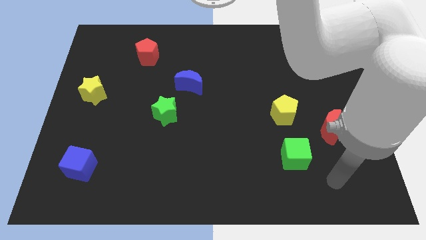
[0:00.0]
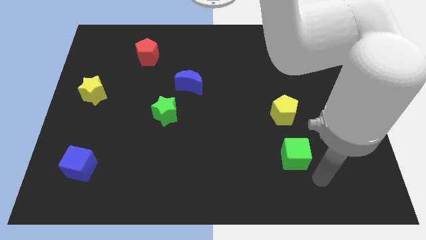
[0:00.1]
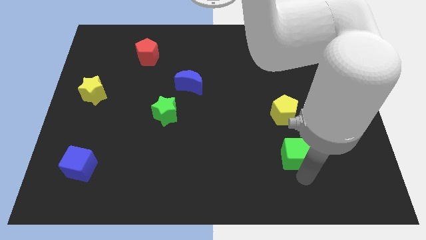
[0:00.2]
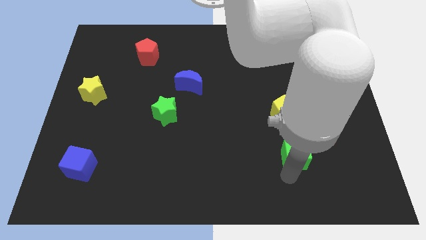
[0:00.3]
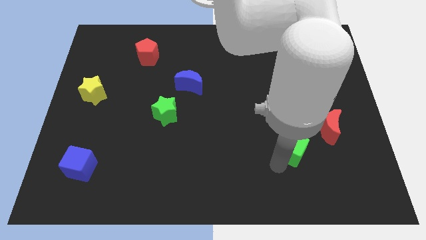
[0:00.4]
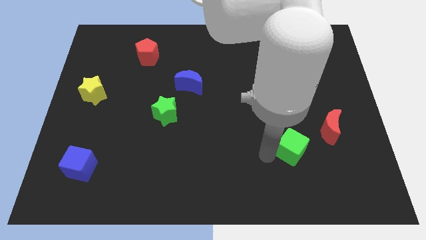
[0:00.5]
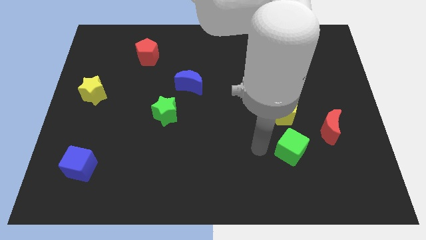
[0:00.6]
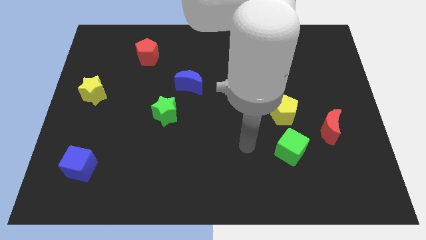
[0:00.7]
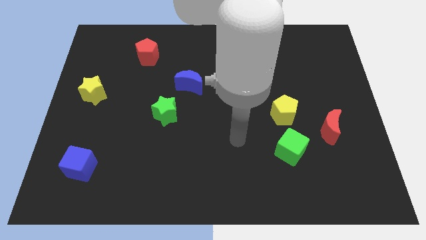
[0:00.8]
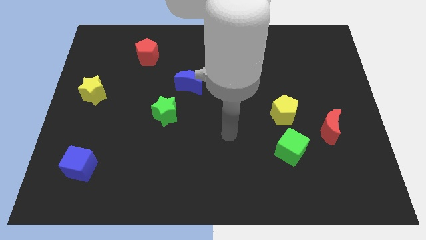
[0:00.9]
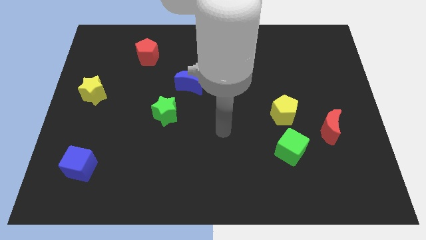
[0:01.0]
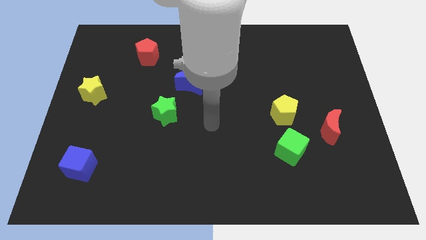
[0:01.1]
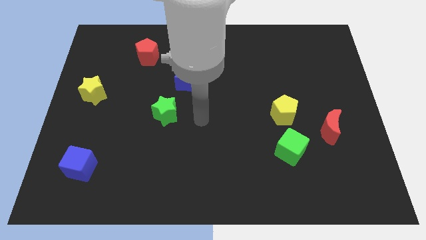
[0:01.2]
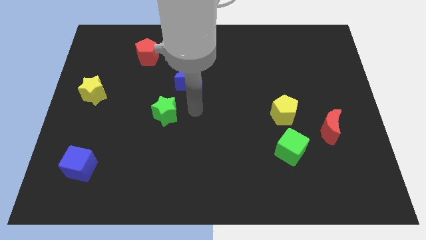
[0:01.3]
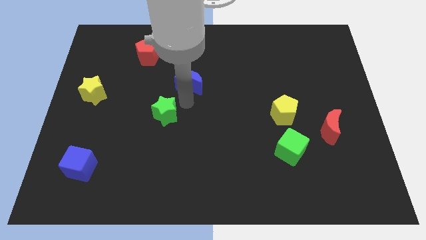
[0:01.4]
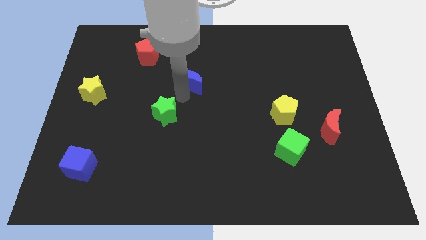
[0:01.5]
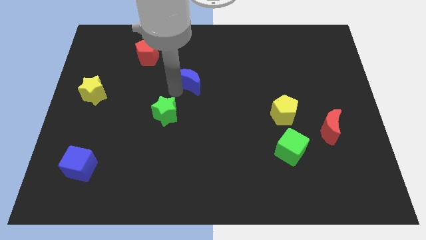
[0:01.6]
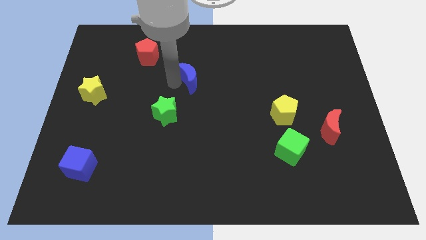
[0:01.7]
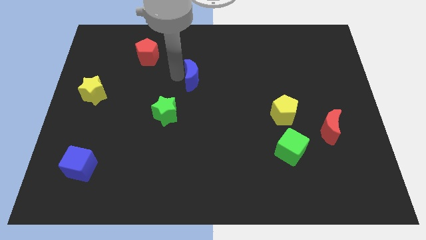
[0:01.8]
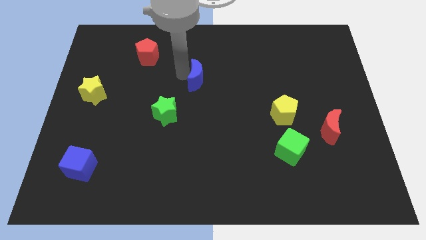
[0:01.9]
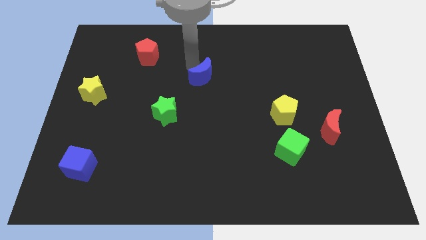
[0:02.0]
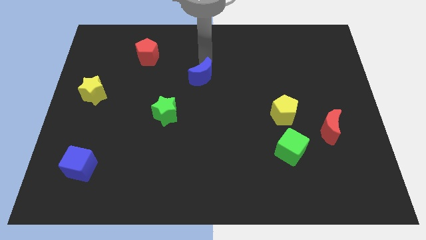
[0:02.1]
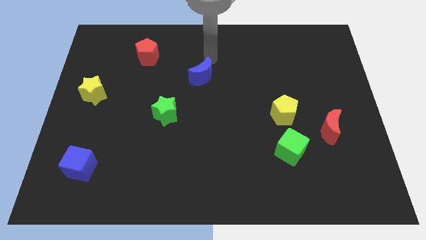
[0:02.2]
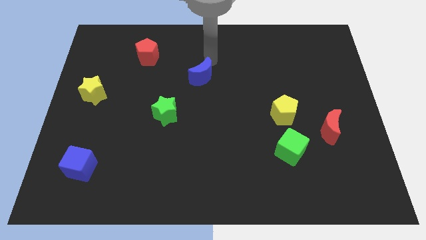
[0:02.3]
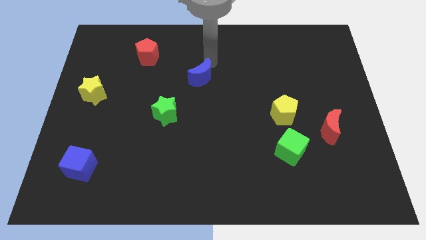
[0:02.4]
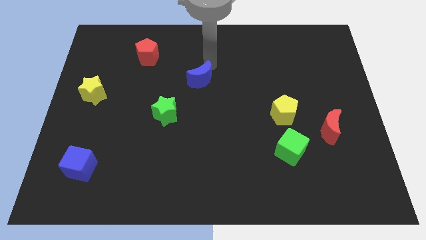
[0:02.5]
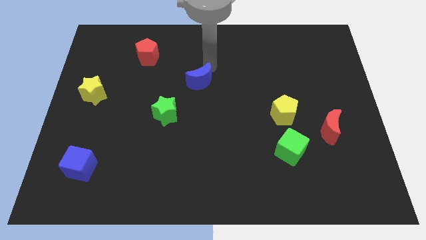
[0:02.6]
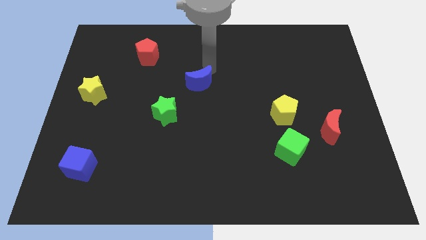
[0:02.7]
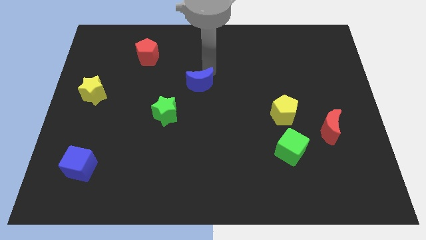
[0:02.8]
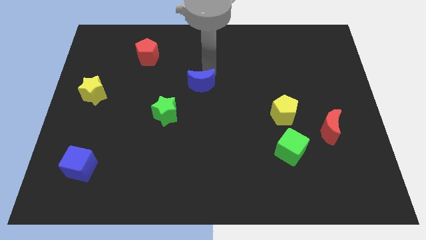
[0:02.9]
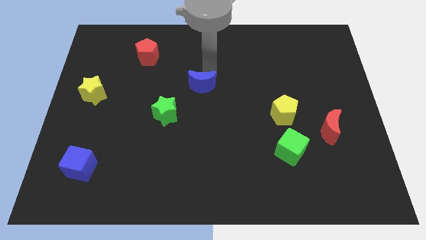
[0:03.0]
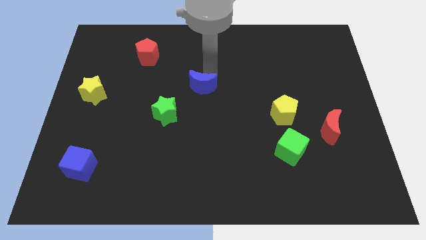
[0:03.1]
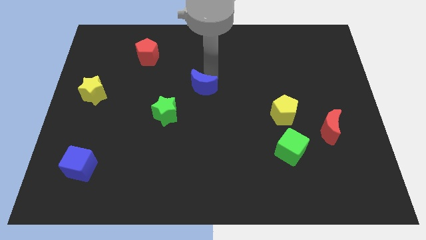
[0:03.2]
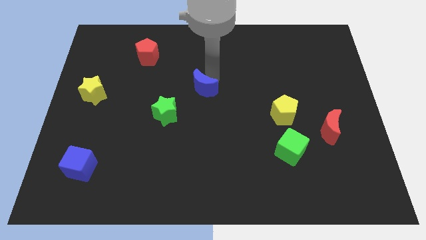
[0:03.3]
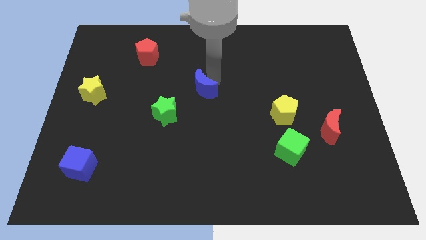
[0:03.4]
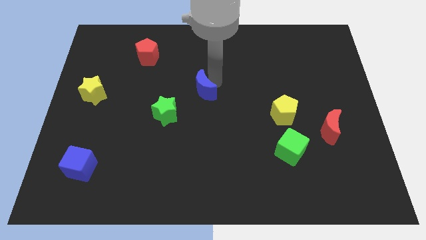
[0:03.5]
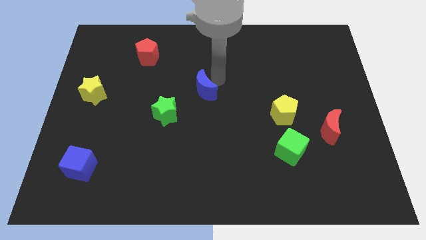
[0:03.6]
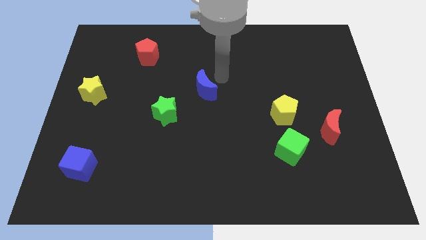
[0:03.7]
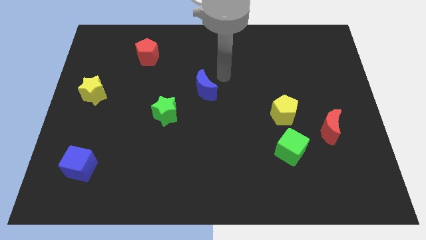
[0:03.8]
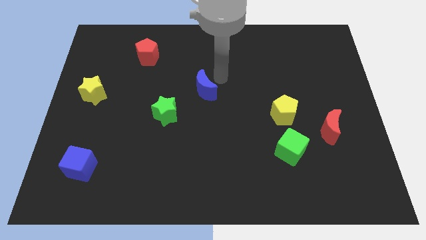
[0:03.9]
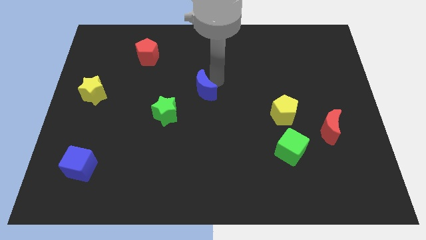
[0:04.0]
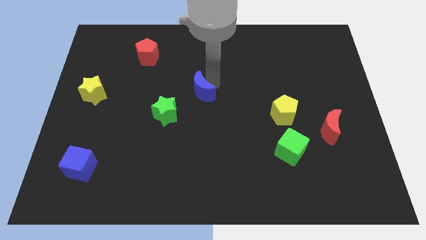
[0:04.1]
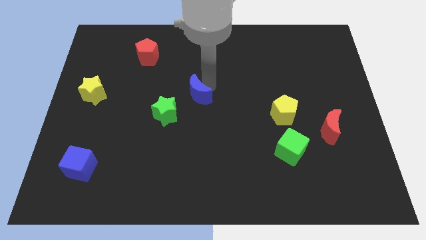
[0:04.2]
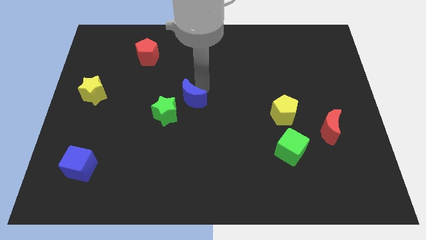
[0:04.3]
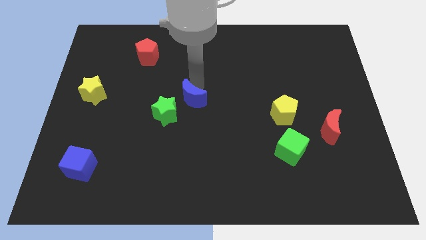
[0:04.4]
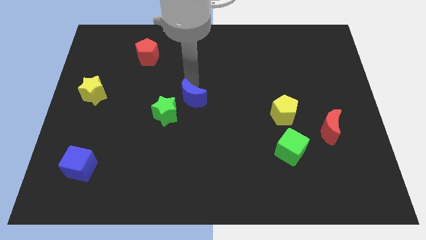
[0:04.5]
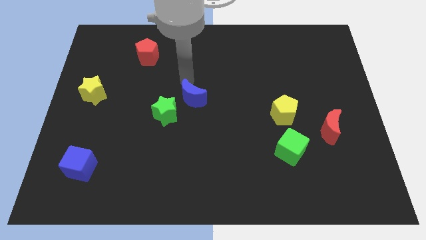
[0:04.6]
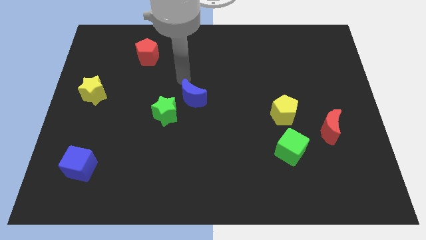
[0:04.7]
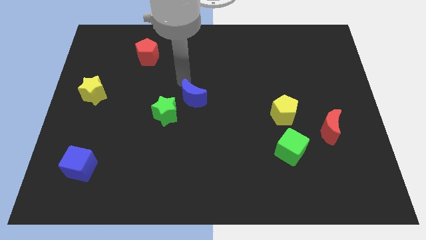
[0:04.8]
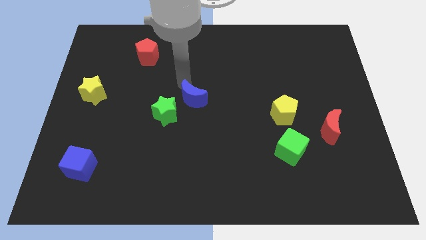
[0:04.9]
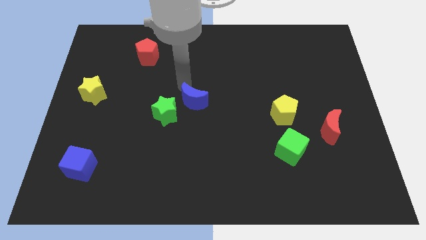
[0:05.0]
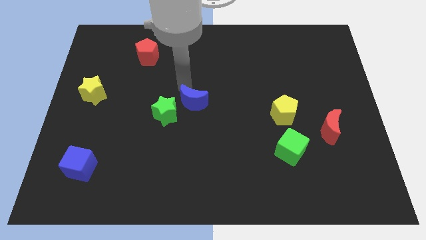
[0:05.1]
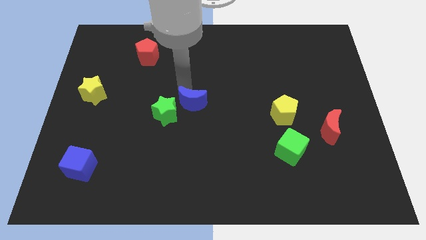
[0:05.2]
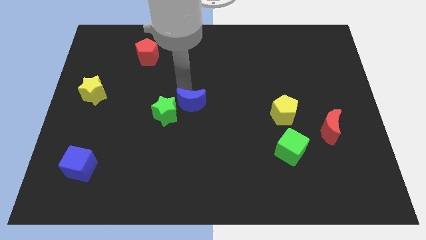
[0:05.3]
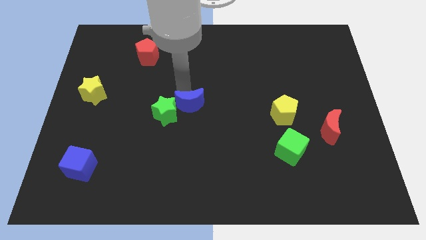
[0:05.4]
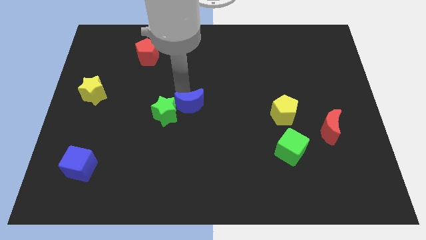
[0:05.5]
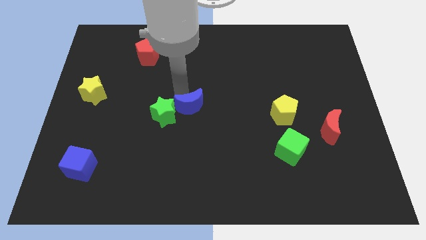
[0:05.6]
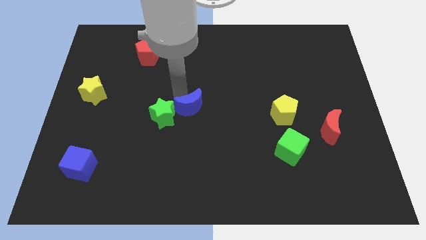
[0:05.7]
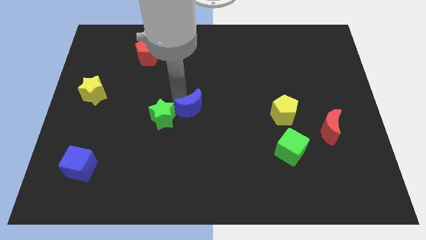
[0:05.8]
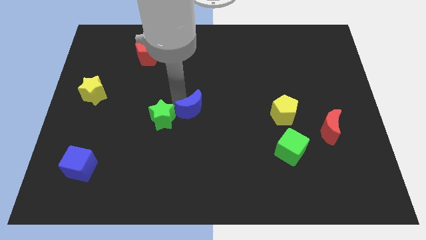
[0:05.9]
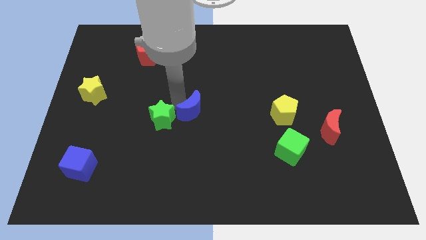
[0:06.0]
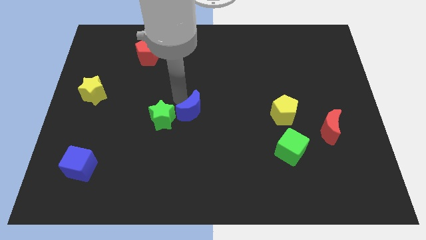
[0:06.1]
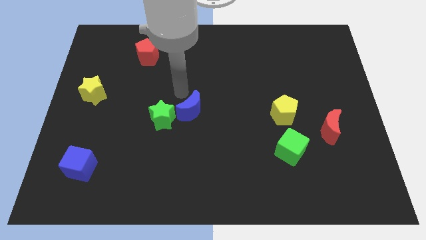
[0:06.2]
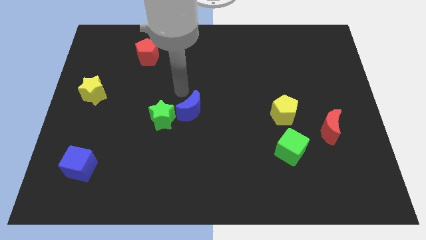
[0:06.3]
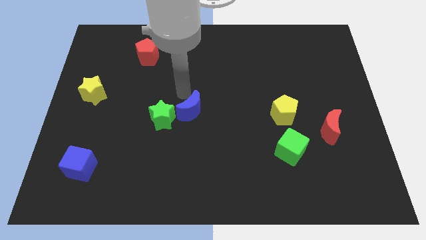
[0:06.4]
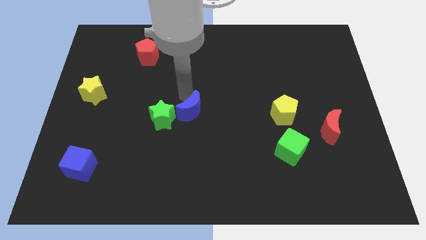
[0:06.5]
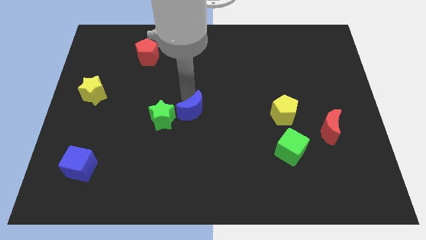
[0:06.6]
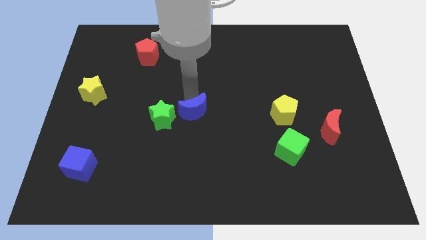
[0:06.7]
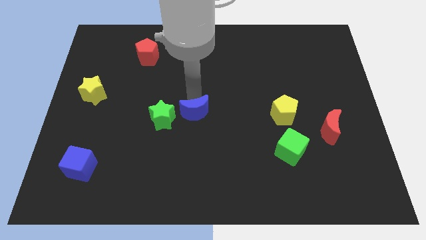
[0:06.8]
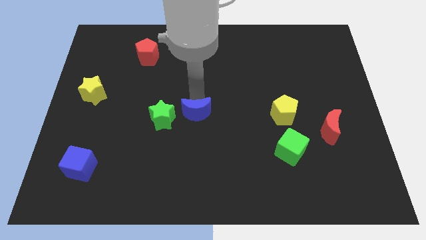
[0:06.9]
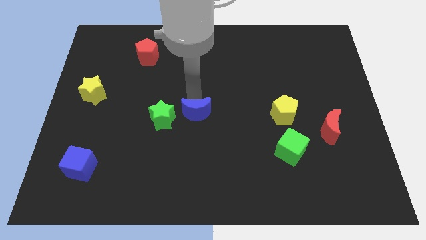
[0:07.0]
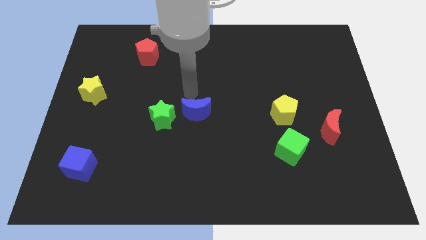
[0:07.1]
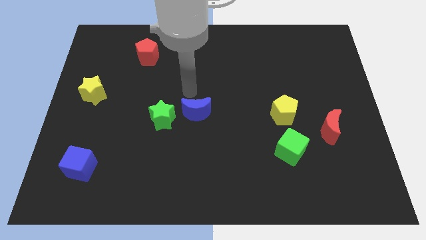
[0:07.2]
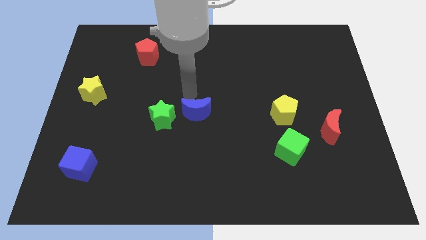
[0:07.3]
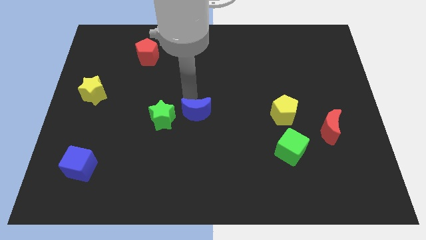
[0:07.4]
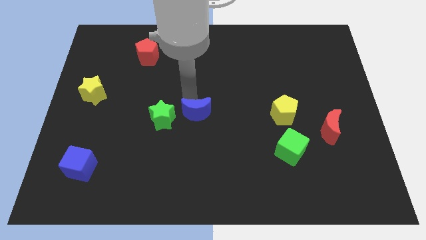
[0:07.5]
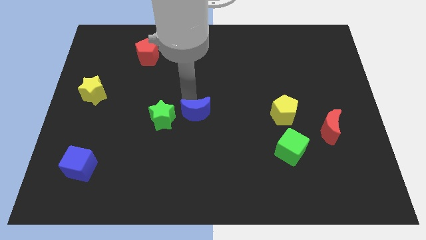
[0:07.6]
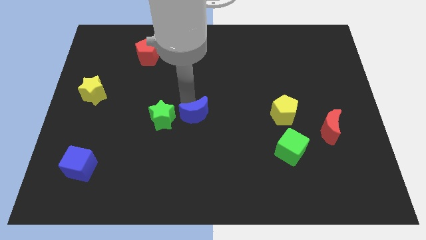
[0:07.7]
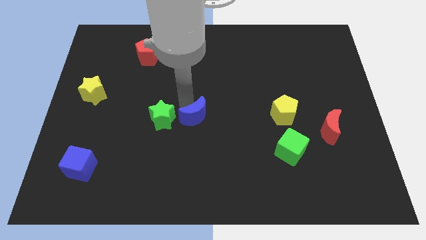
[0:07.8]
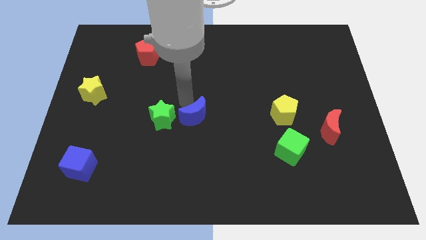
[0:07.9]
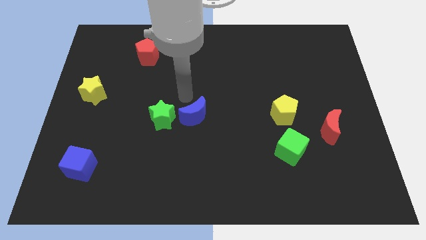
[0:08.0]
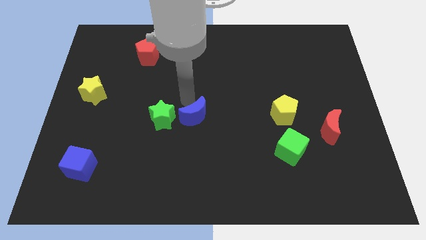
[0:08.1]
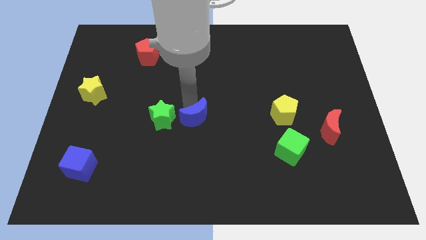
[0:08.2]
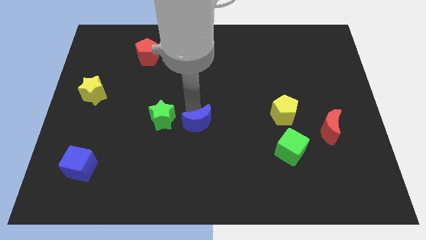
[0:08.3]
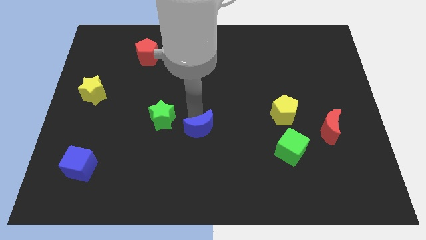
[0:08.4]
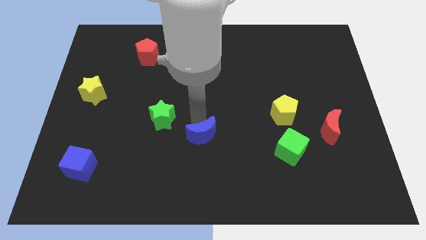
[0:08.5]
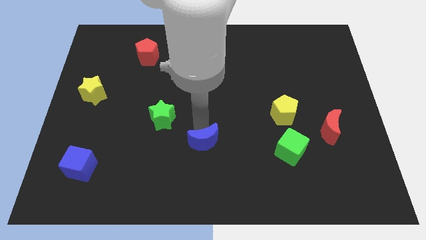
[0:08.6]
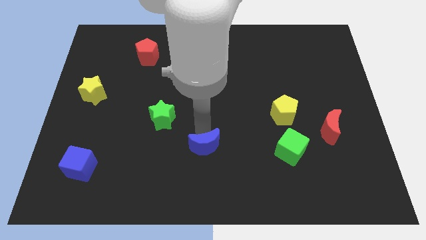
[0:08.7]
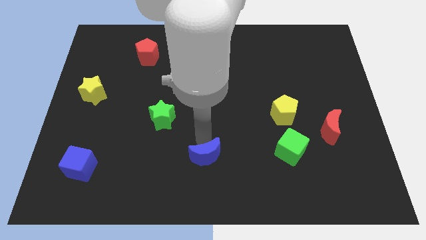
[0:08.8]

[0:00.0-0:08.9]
put the blue moon to the bottom side
